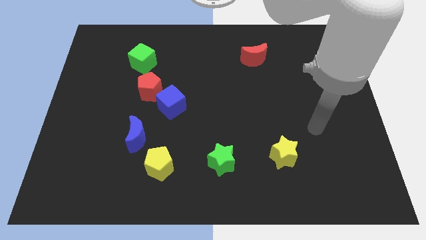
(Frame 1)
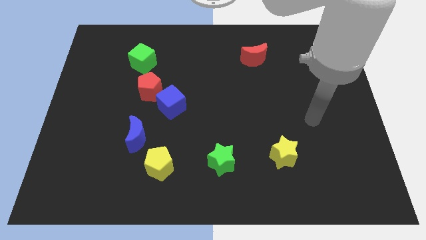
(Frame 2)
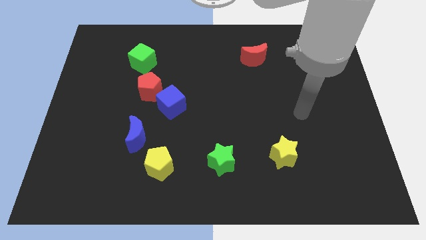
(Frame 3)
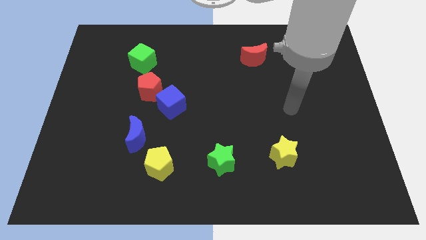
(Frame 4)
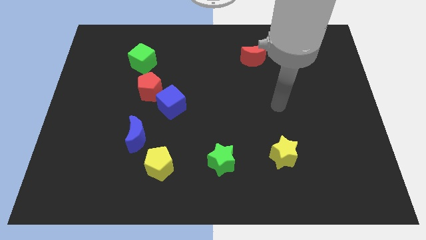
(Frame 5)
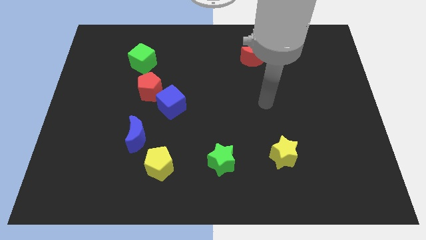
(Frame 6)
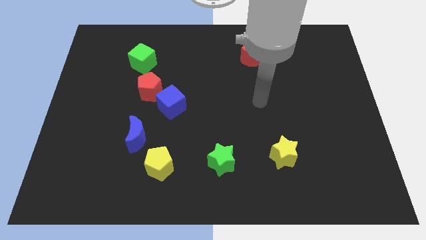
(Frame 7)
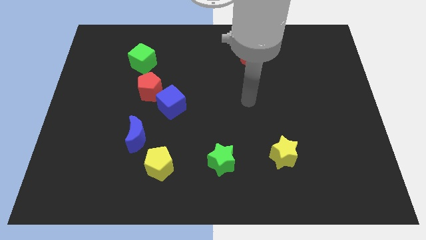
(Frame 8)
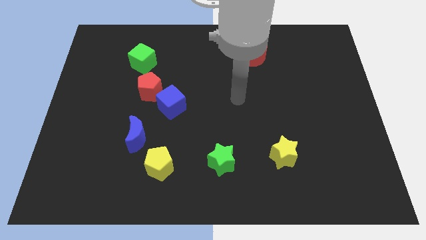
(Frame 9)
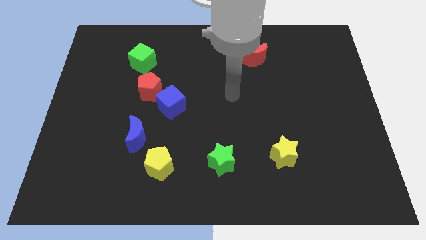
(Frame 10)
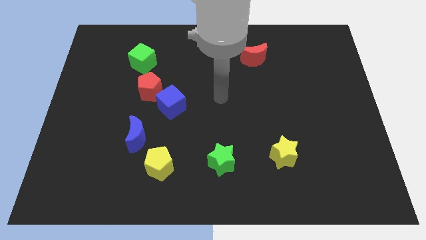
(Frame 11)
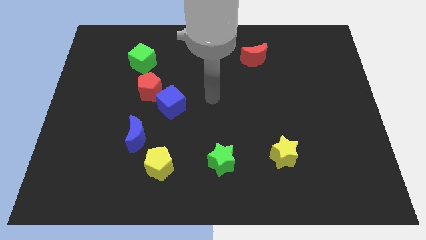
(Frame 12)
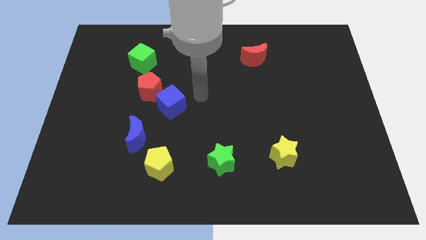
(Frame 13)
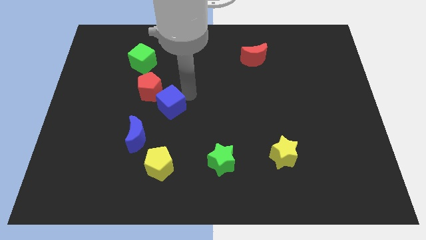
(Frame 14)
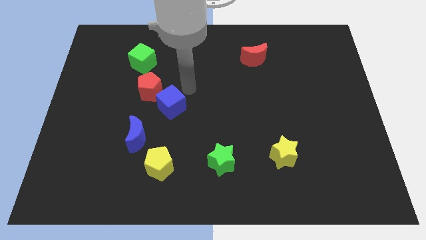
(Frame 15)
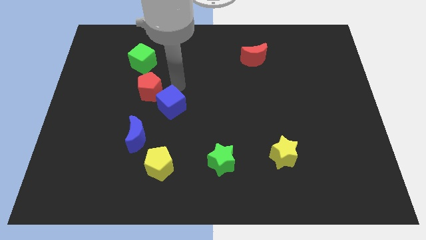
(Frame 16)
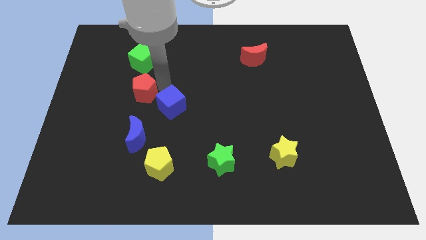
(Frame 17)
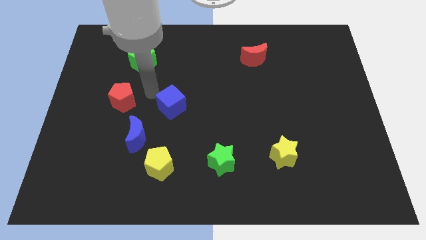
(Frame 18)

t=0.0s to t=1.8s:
separate the blue cube from the red pentagon

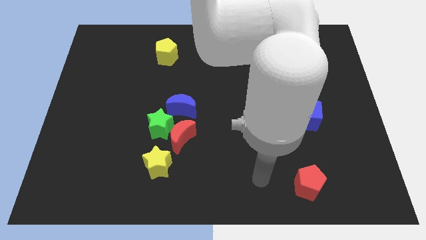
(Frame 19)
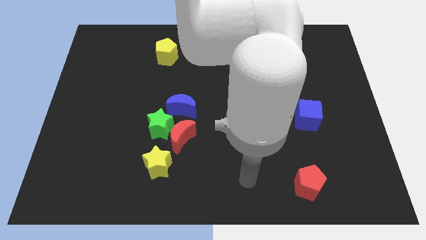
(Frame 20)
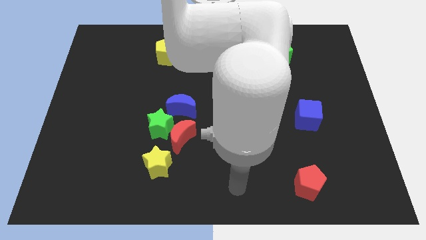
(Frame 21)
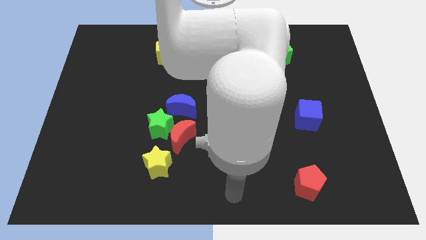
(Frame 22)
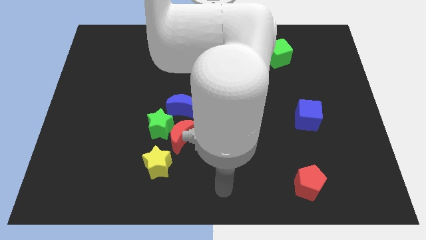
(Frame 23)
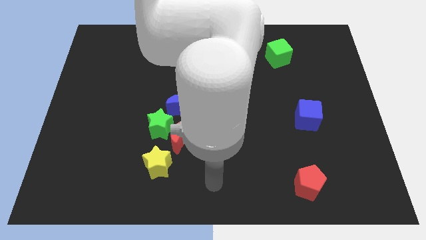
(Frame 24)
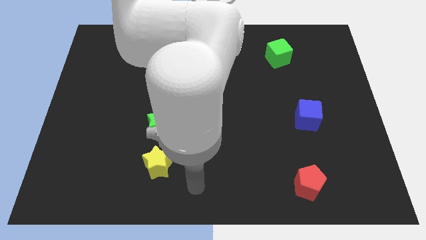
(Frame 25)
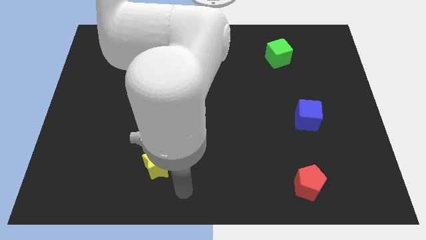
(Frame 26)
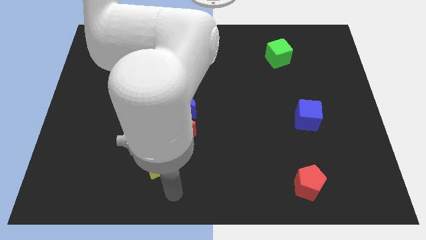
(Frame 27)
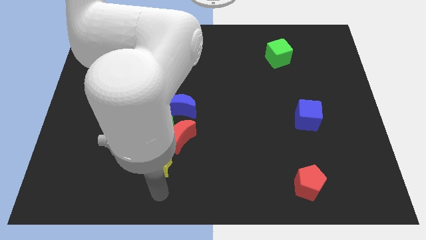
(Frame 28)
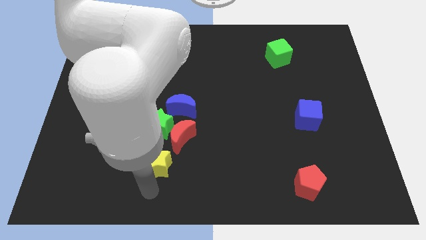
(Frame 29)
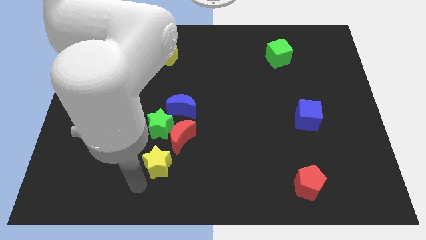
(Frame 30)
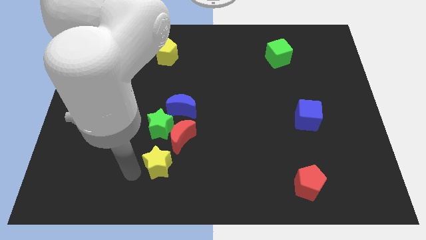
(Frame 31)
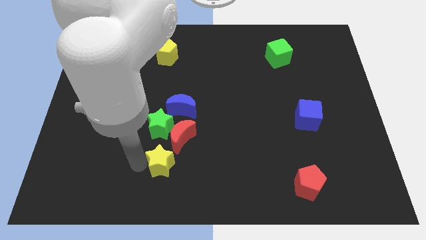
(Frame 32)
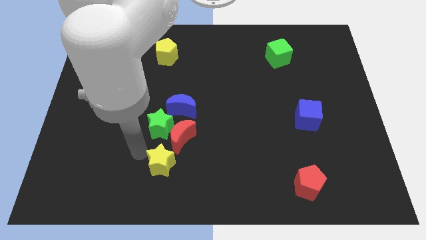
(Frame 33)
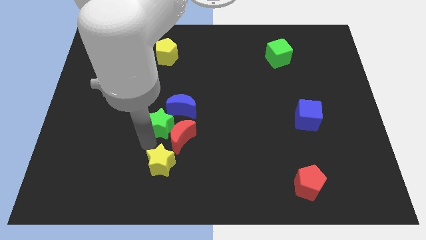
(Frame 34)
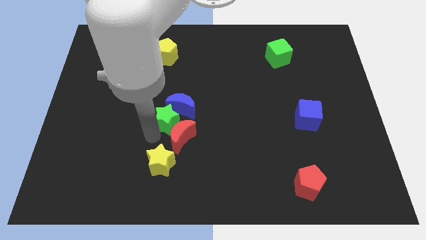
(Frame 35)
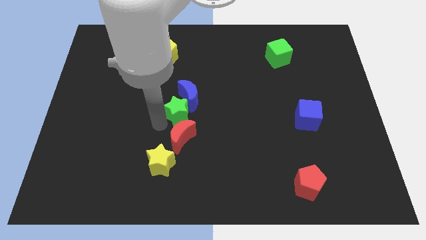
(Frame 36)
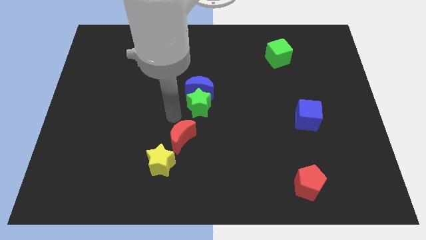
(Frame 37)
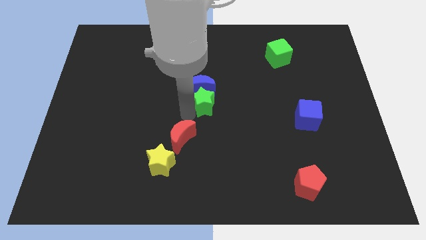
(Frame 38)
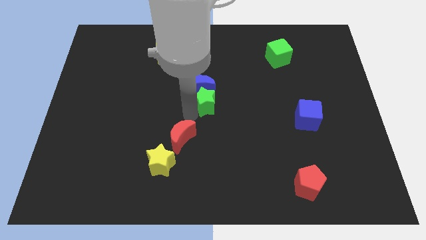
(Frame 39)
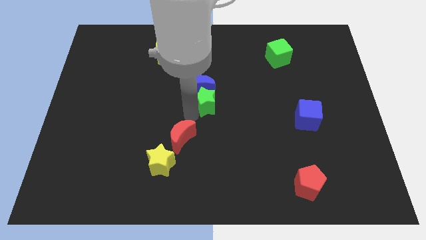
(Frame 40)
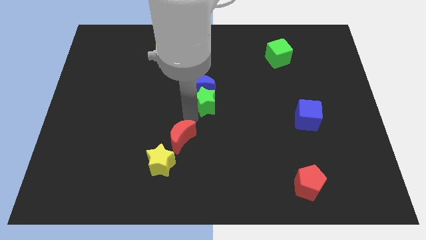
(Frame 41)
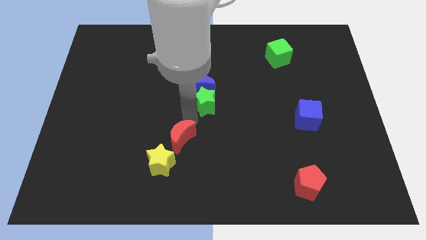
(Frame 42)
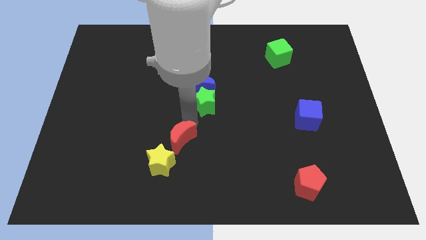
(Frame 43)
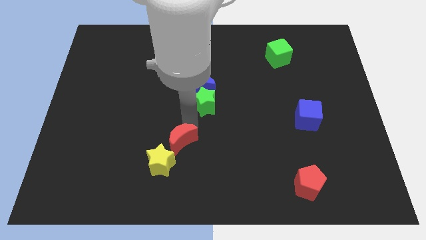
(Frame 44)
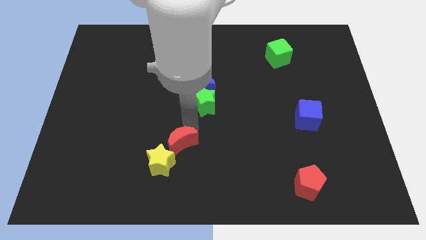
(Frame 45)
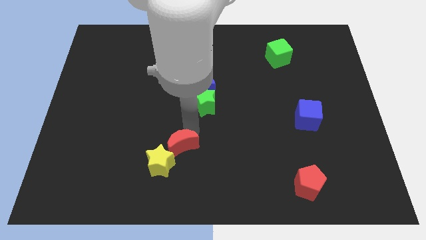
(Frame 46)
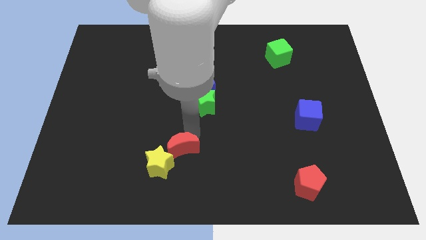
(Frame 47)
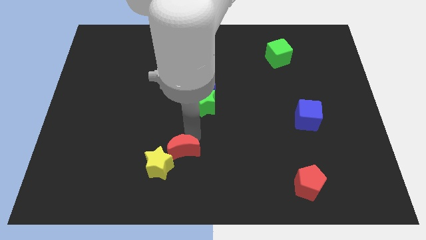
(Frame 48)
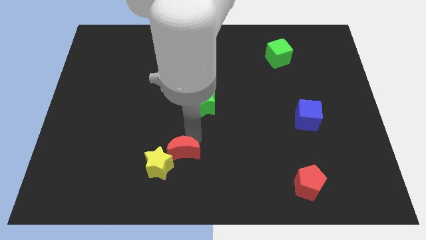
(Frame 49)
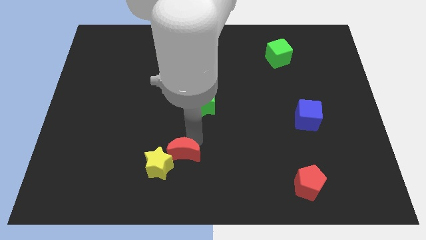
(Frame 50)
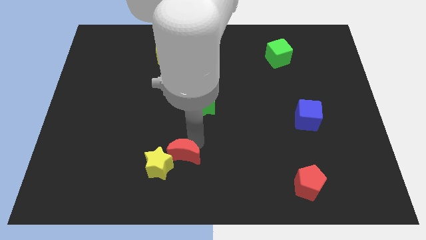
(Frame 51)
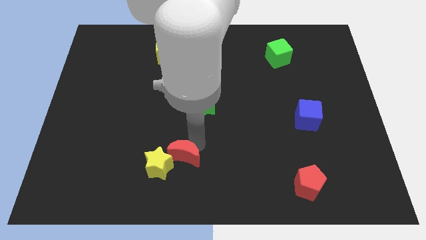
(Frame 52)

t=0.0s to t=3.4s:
separate the red moon from the clump

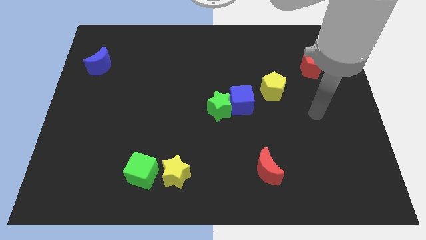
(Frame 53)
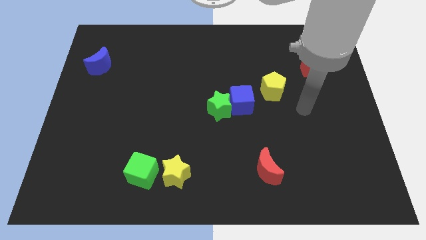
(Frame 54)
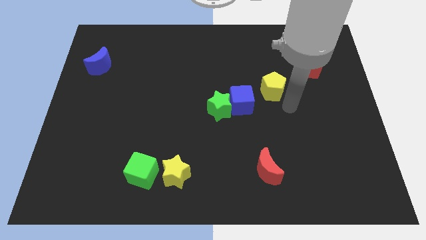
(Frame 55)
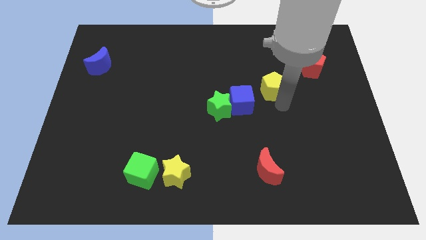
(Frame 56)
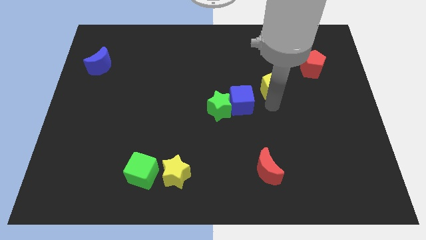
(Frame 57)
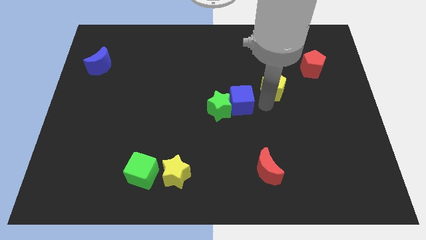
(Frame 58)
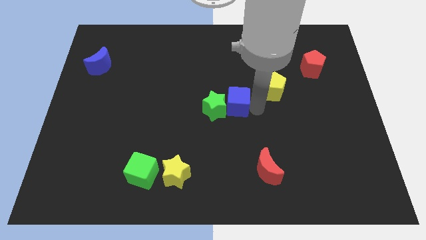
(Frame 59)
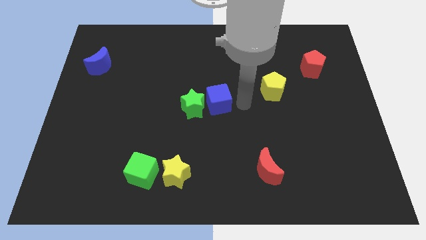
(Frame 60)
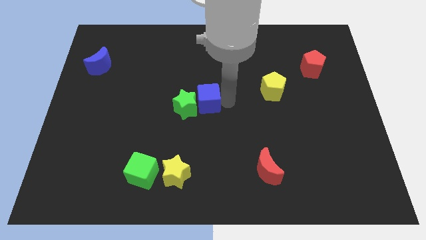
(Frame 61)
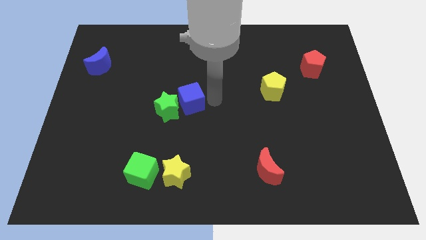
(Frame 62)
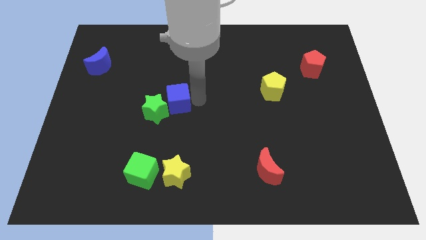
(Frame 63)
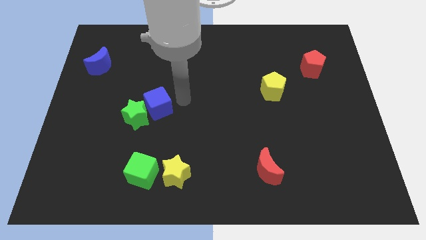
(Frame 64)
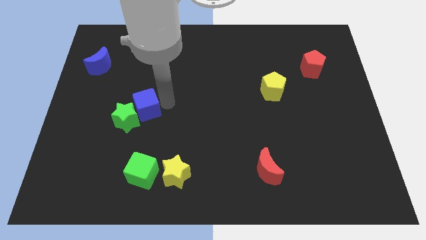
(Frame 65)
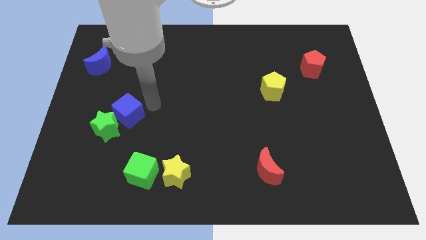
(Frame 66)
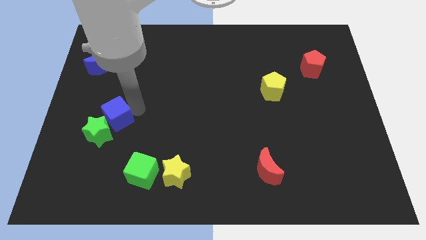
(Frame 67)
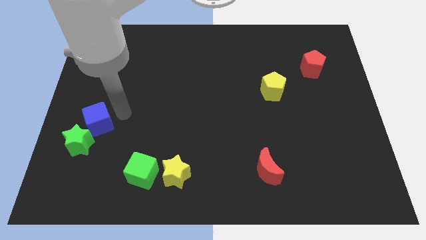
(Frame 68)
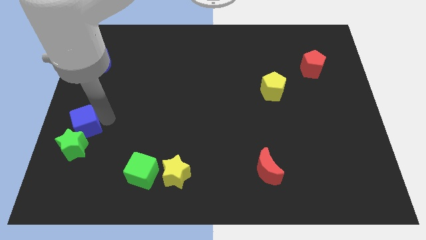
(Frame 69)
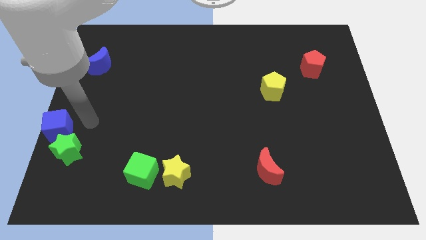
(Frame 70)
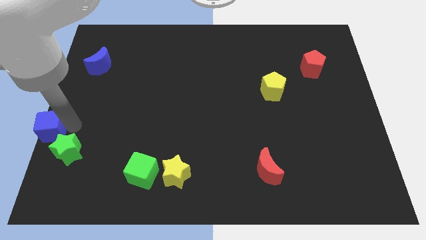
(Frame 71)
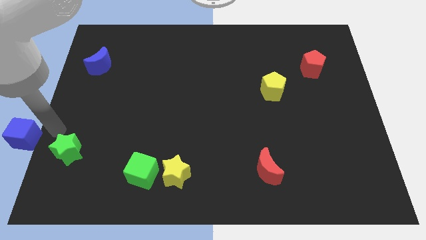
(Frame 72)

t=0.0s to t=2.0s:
move the green star away from the blue cube

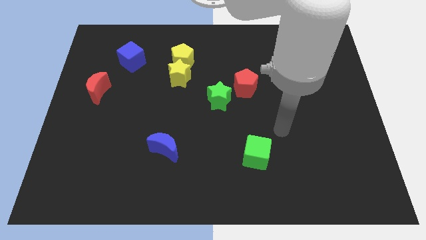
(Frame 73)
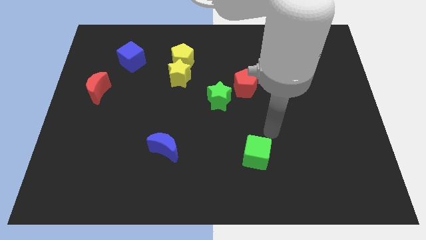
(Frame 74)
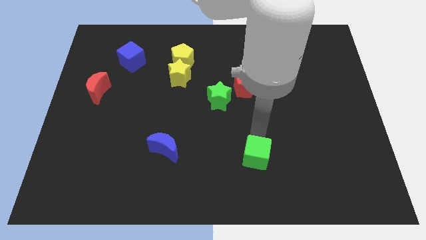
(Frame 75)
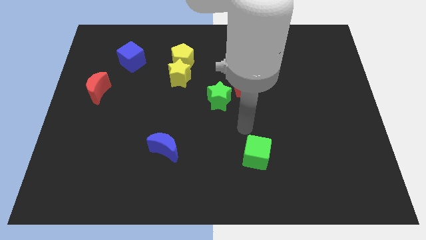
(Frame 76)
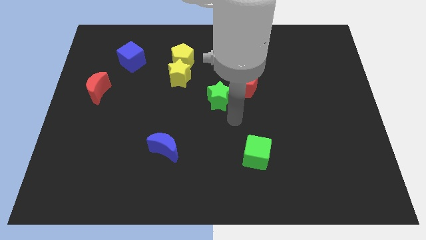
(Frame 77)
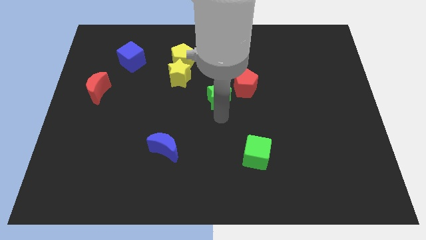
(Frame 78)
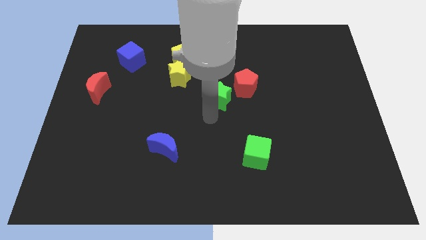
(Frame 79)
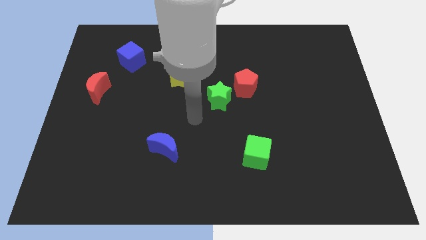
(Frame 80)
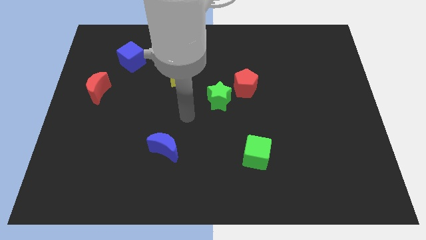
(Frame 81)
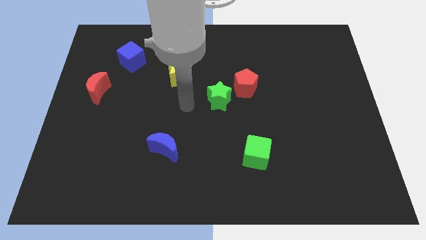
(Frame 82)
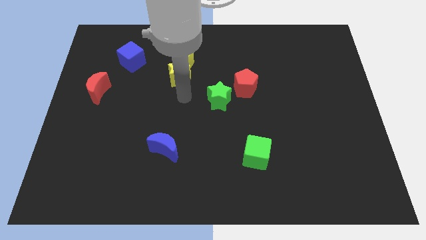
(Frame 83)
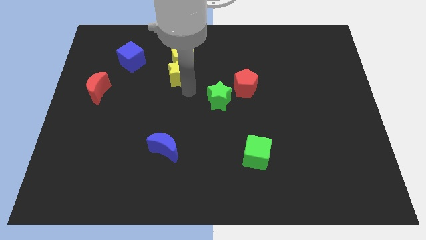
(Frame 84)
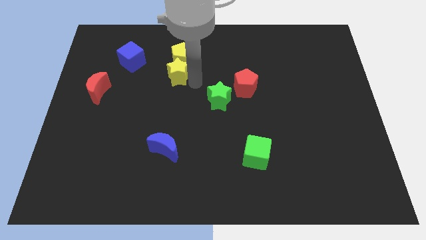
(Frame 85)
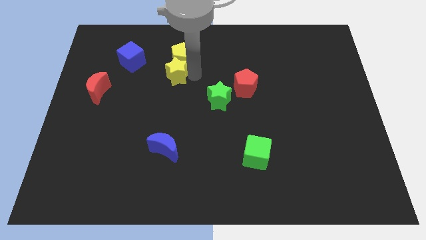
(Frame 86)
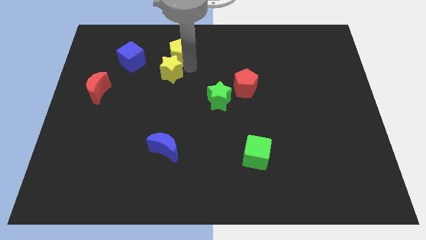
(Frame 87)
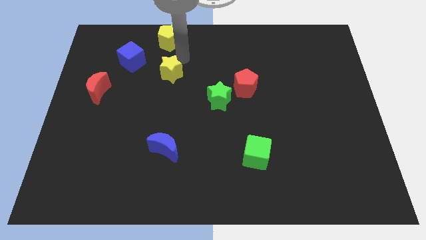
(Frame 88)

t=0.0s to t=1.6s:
move the yellow star away from the yellow pentagon

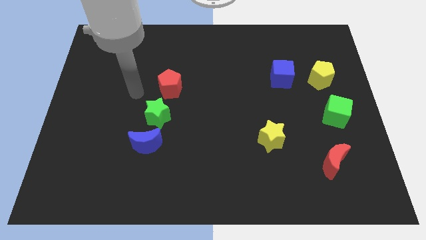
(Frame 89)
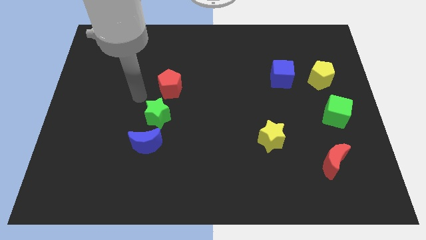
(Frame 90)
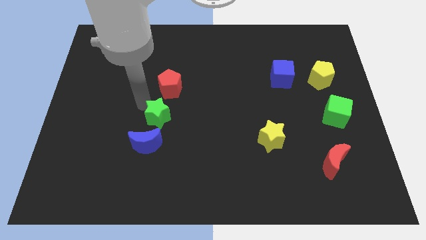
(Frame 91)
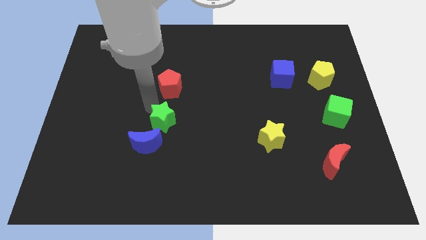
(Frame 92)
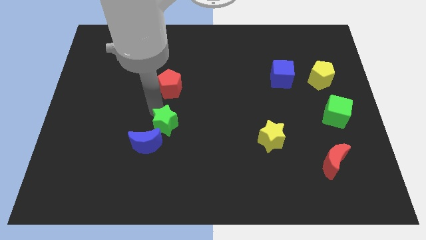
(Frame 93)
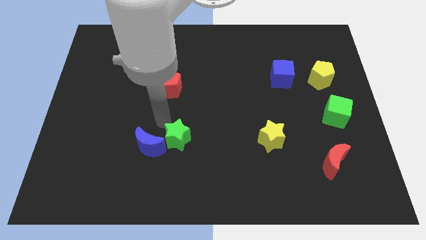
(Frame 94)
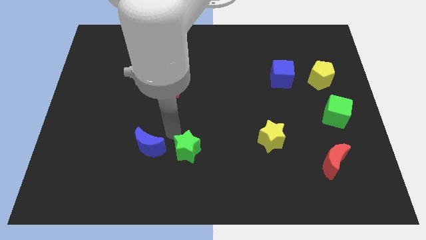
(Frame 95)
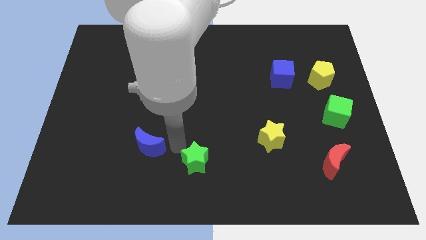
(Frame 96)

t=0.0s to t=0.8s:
move the blue moon away from the green star
